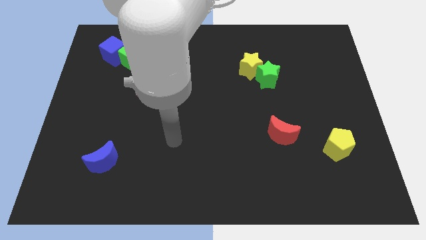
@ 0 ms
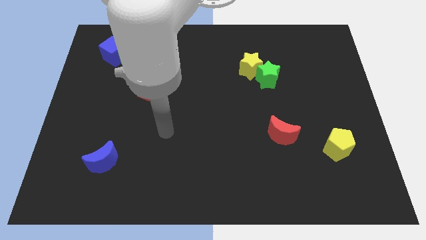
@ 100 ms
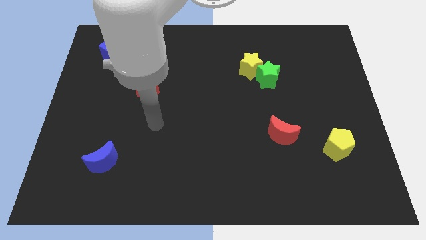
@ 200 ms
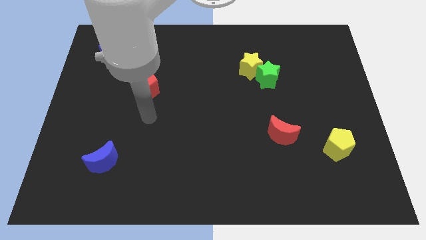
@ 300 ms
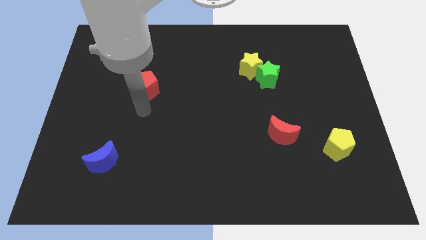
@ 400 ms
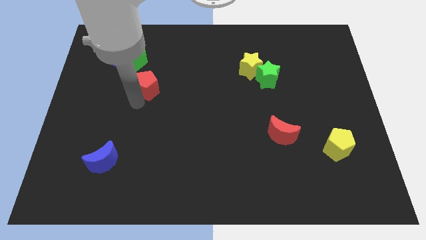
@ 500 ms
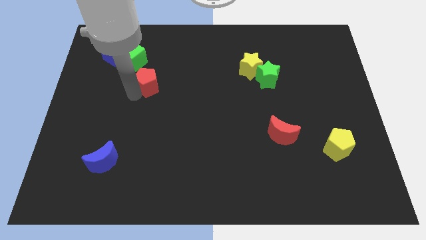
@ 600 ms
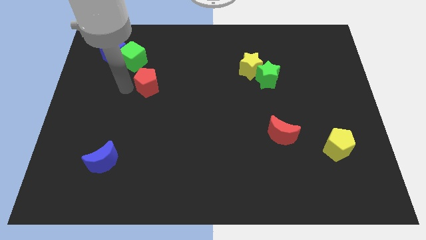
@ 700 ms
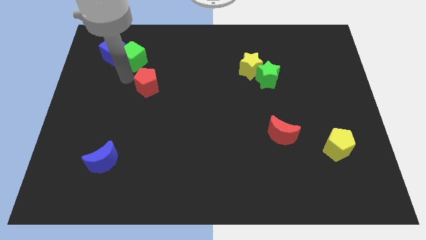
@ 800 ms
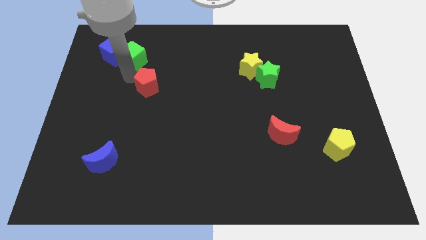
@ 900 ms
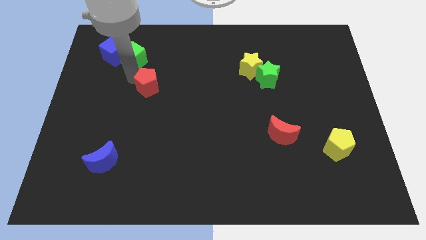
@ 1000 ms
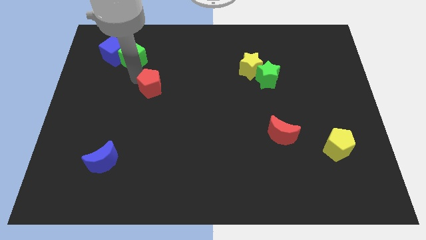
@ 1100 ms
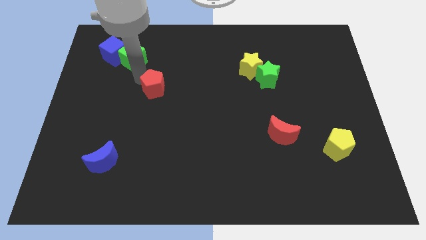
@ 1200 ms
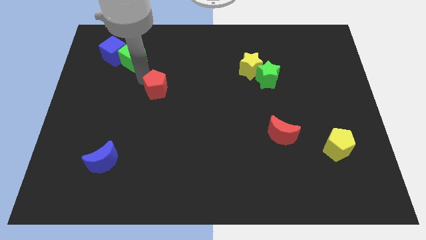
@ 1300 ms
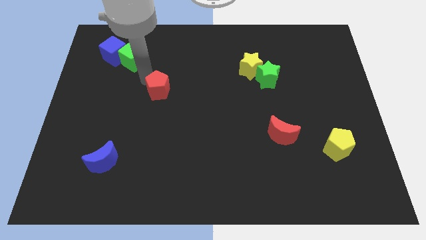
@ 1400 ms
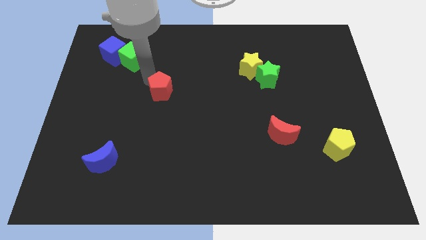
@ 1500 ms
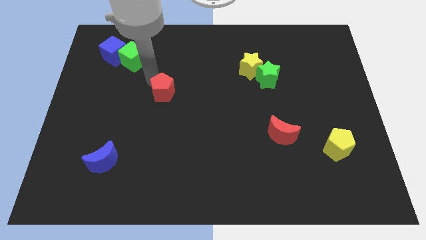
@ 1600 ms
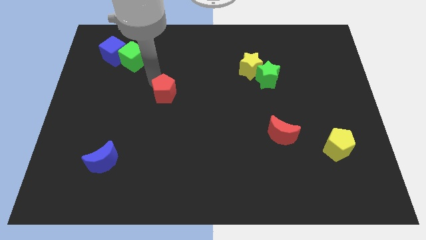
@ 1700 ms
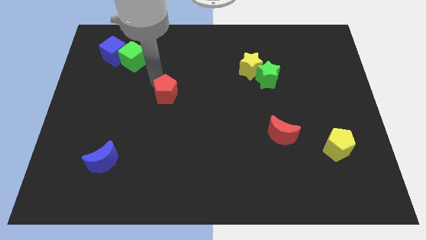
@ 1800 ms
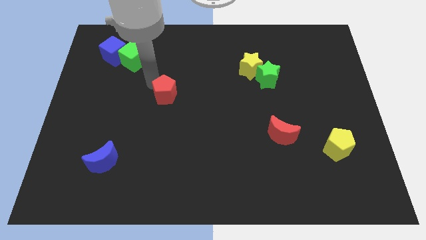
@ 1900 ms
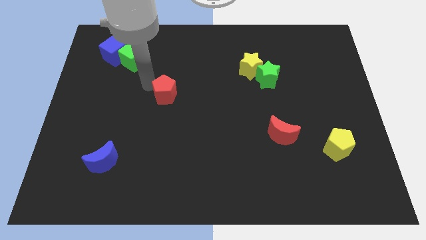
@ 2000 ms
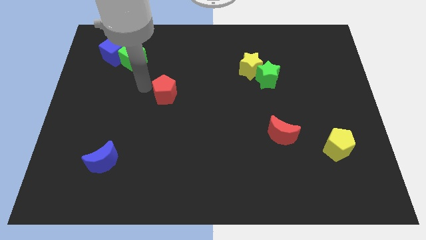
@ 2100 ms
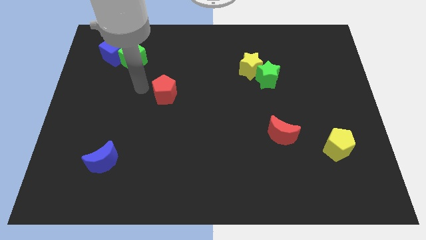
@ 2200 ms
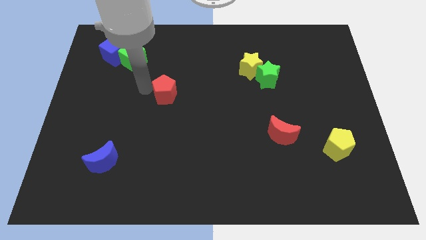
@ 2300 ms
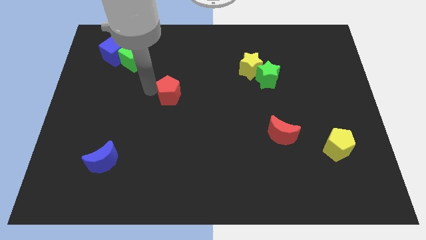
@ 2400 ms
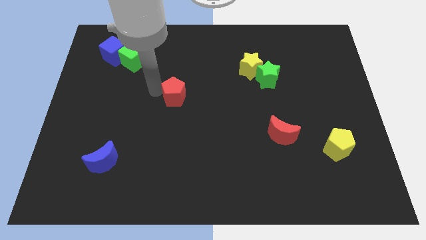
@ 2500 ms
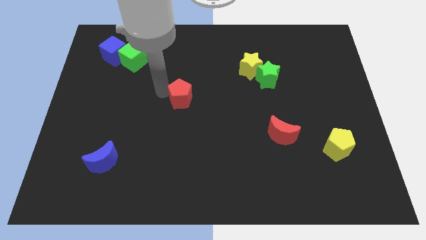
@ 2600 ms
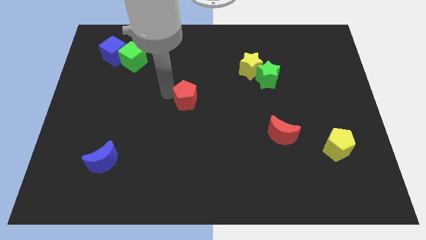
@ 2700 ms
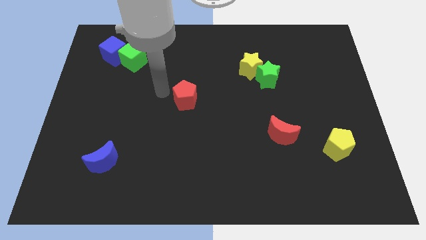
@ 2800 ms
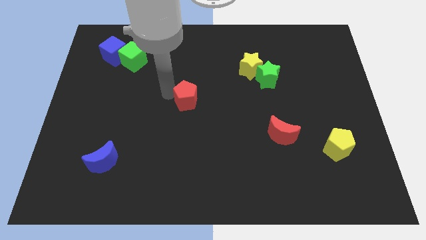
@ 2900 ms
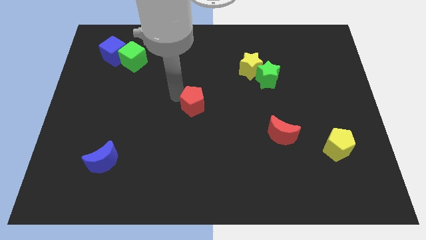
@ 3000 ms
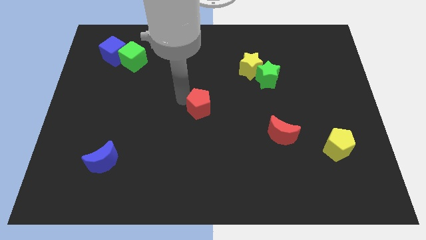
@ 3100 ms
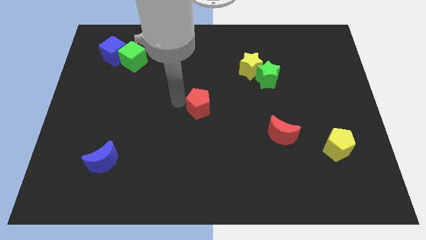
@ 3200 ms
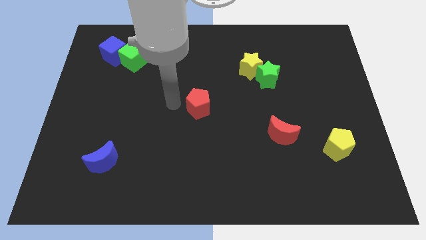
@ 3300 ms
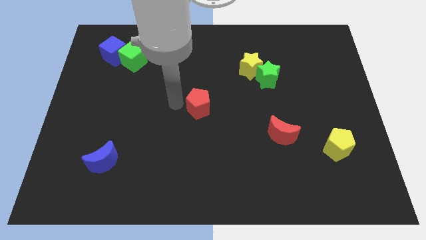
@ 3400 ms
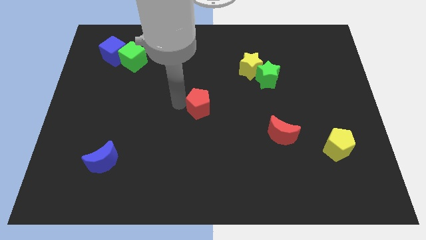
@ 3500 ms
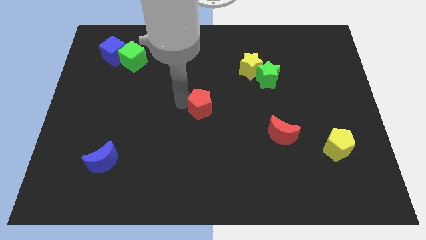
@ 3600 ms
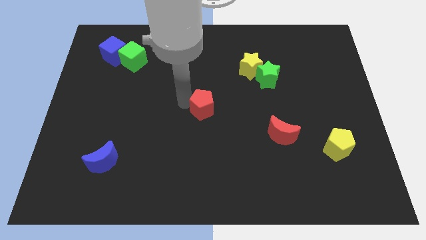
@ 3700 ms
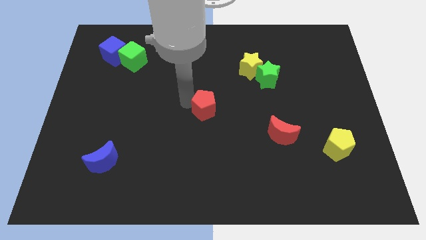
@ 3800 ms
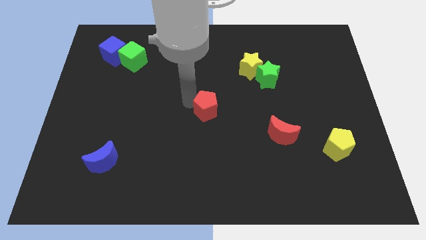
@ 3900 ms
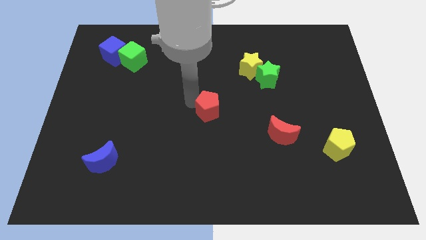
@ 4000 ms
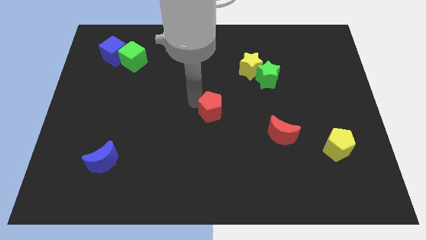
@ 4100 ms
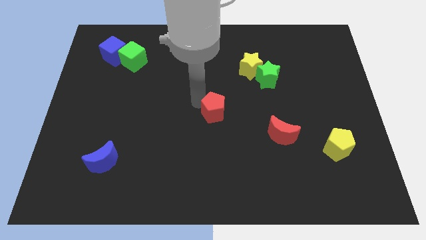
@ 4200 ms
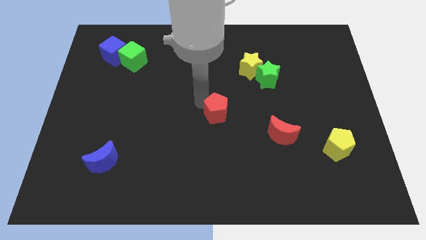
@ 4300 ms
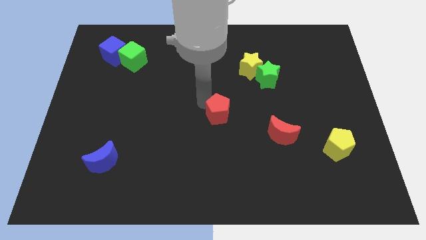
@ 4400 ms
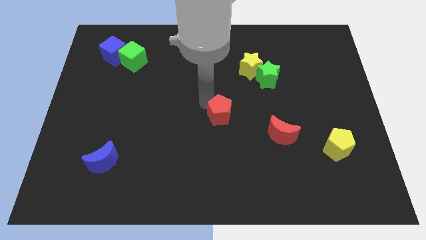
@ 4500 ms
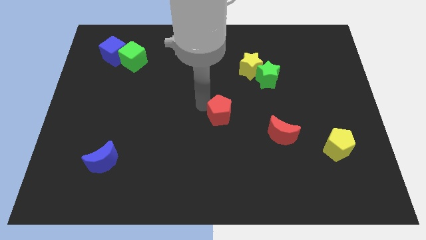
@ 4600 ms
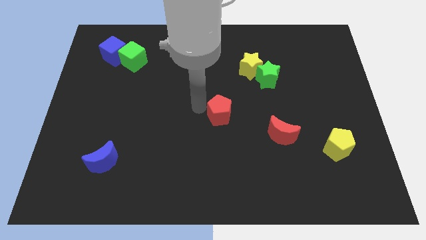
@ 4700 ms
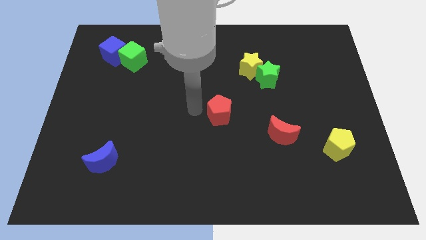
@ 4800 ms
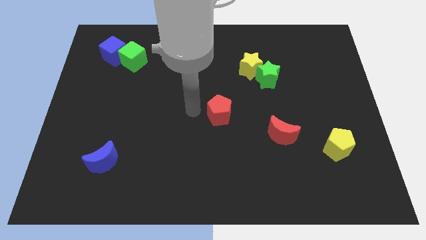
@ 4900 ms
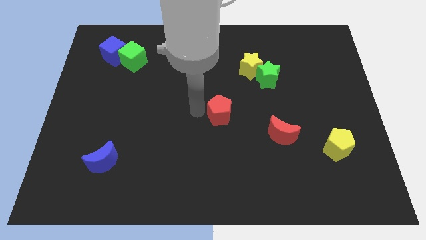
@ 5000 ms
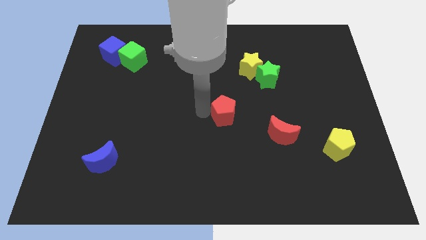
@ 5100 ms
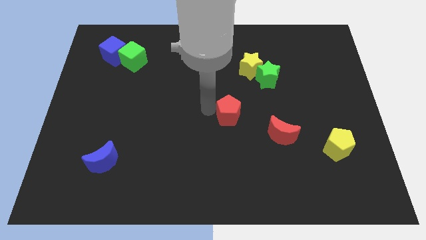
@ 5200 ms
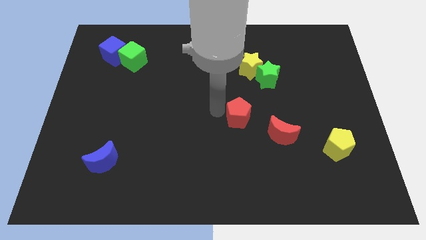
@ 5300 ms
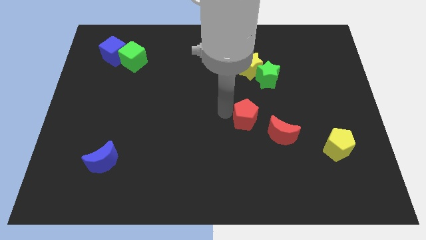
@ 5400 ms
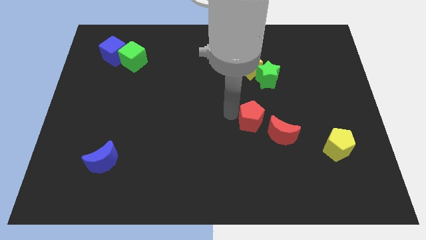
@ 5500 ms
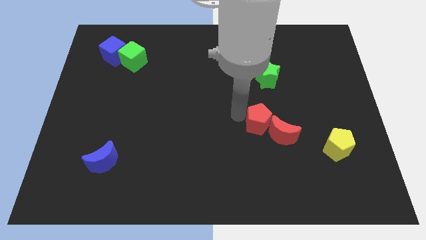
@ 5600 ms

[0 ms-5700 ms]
push the red pentagon towards the red moon

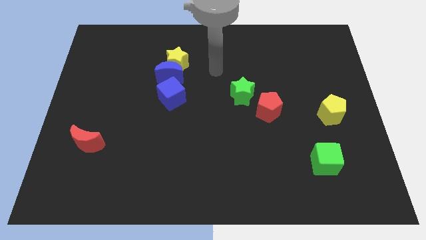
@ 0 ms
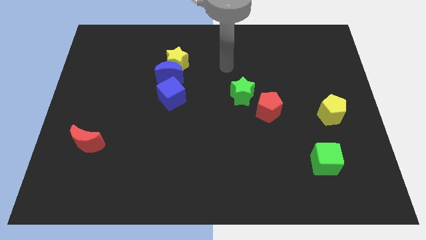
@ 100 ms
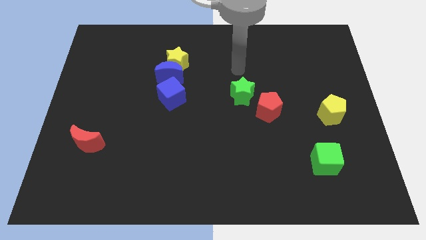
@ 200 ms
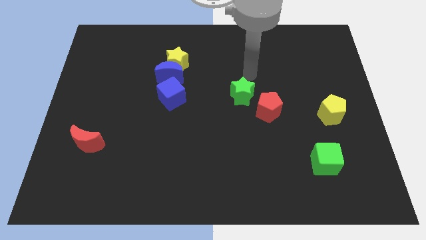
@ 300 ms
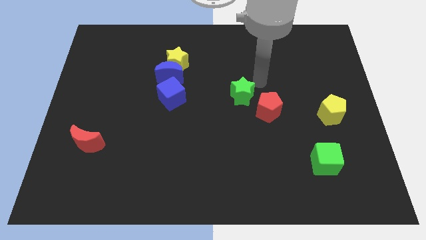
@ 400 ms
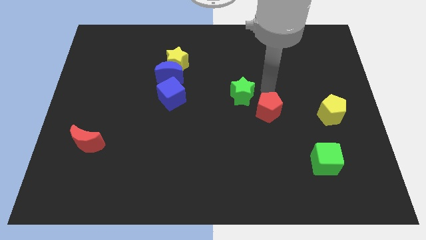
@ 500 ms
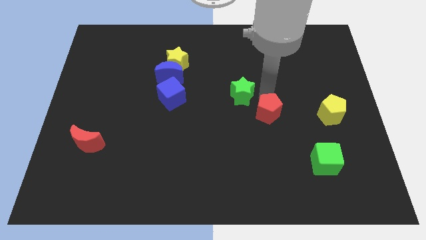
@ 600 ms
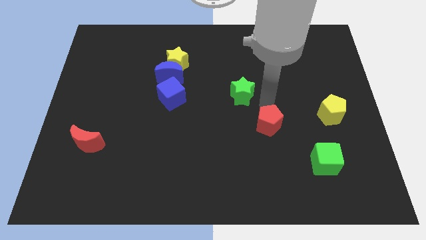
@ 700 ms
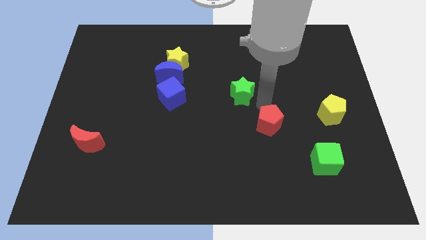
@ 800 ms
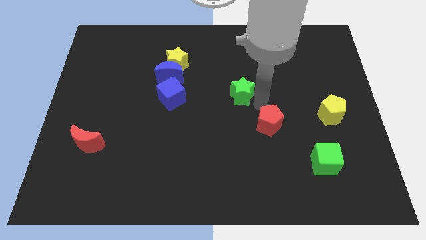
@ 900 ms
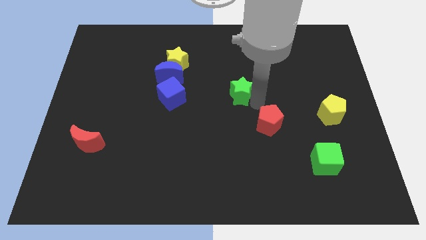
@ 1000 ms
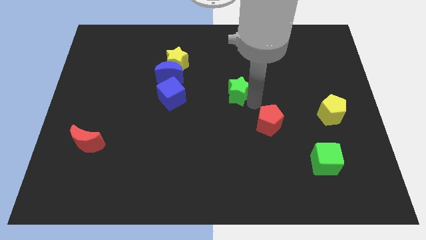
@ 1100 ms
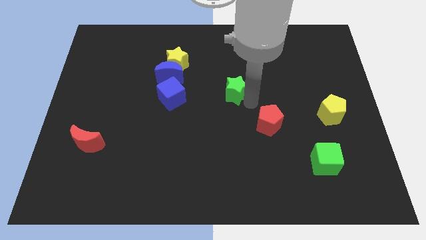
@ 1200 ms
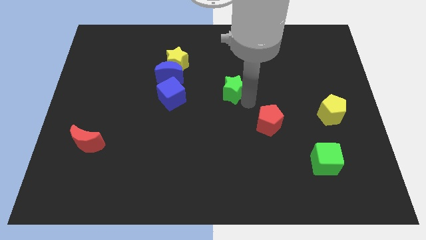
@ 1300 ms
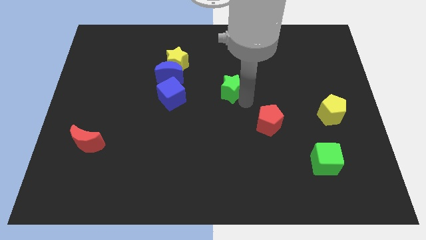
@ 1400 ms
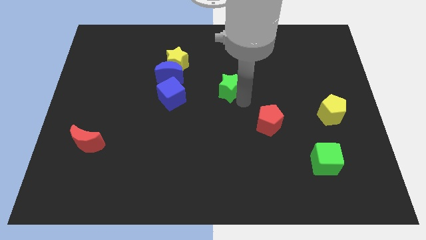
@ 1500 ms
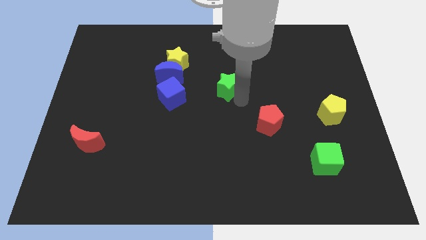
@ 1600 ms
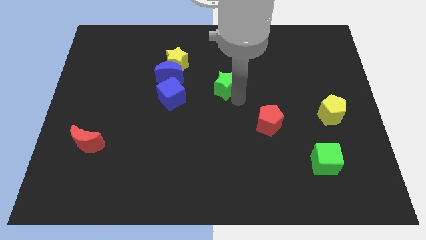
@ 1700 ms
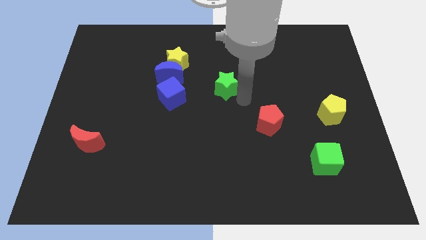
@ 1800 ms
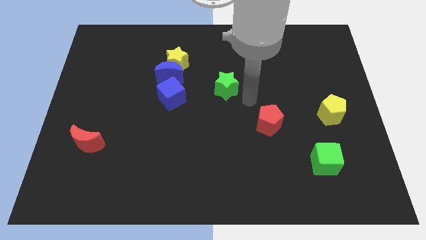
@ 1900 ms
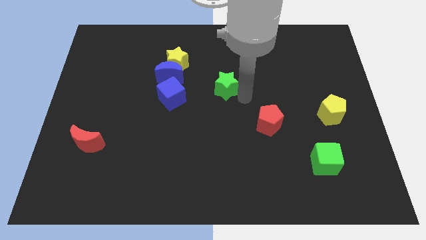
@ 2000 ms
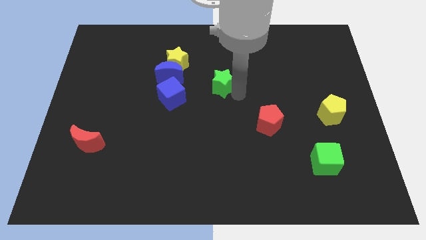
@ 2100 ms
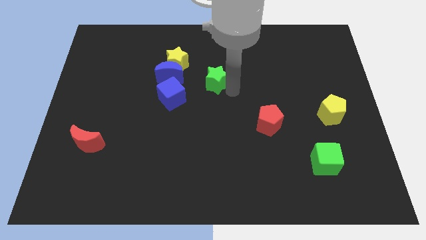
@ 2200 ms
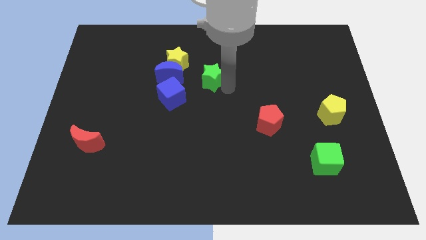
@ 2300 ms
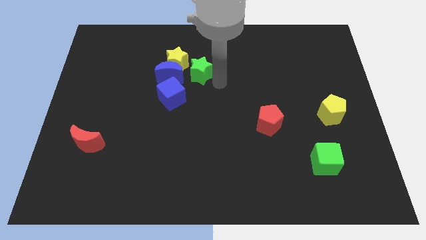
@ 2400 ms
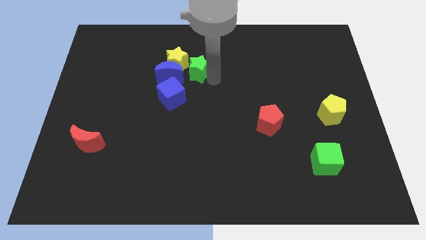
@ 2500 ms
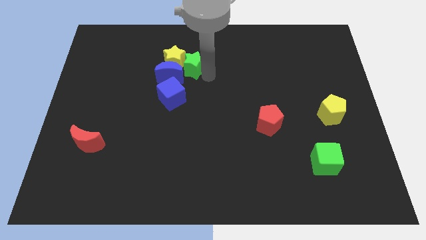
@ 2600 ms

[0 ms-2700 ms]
put the green star close to the yellow star

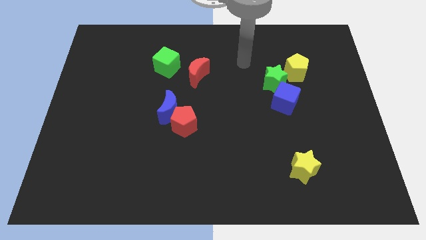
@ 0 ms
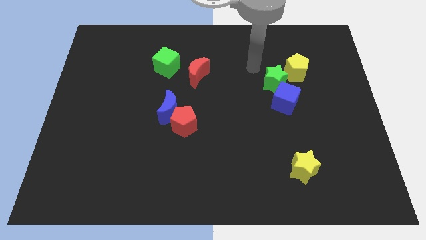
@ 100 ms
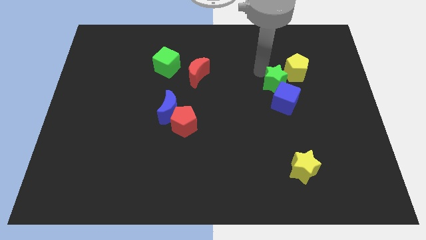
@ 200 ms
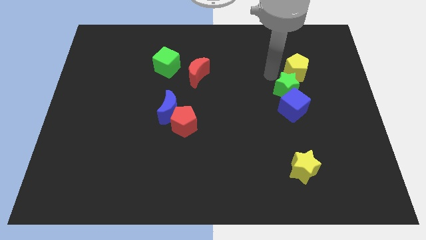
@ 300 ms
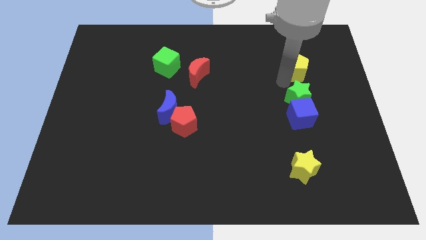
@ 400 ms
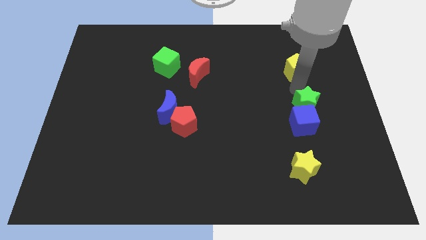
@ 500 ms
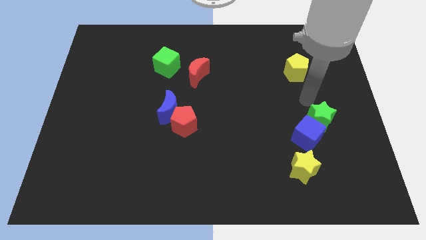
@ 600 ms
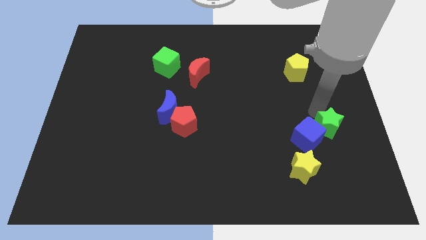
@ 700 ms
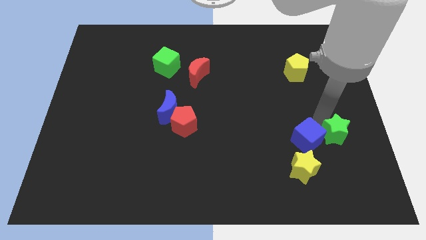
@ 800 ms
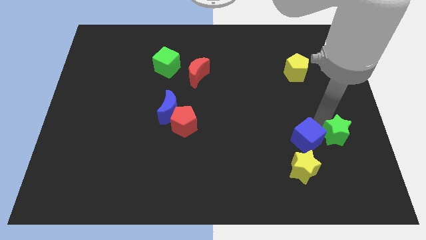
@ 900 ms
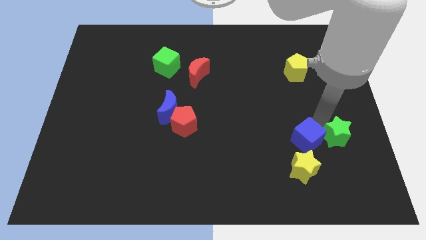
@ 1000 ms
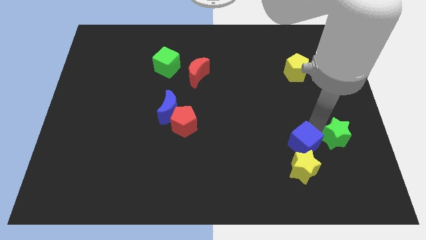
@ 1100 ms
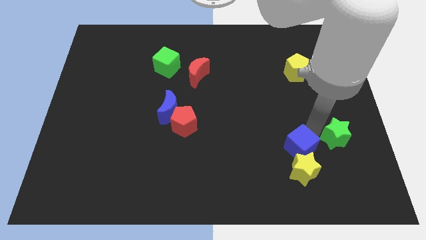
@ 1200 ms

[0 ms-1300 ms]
put the blue cube close to the yellow star
